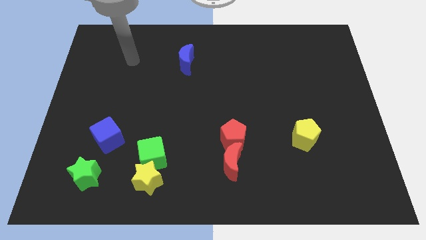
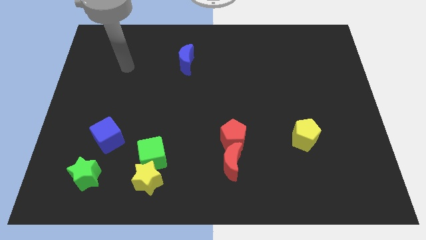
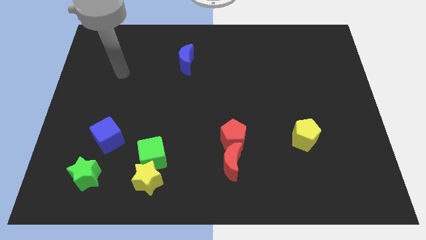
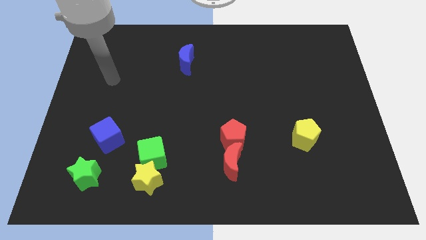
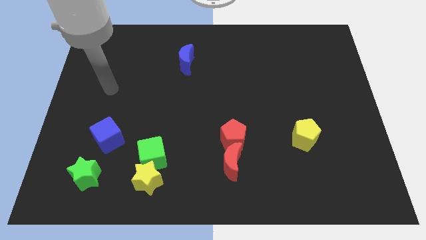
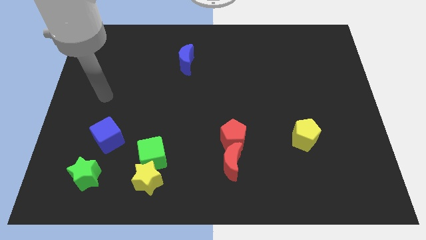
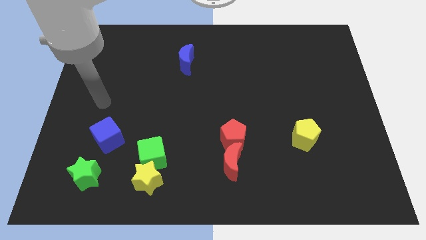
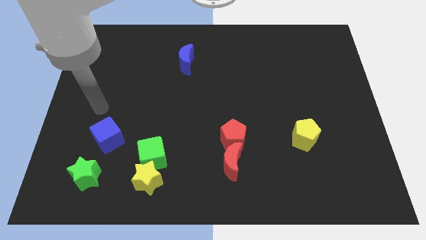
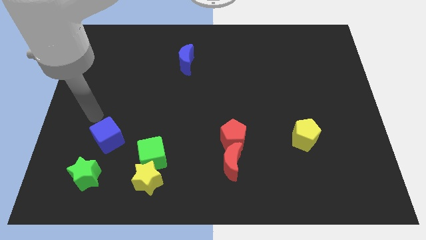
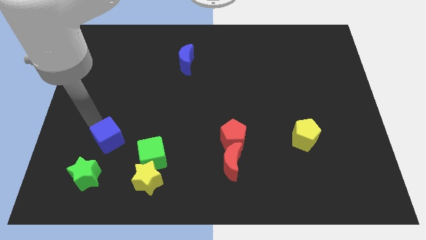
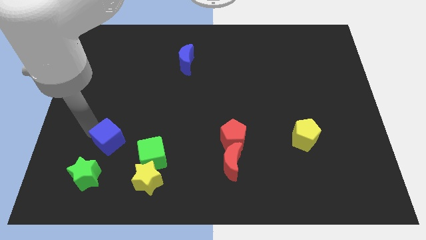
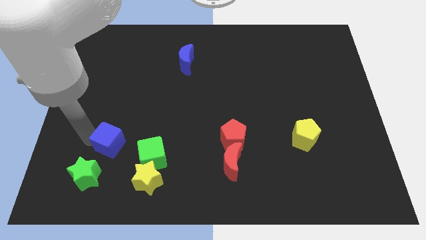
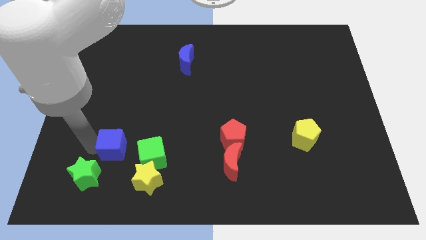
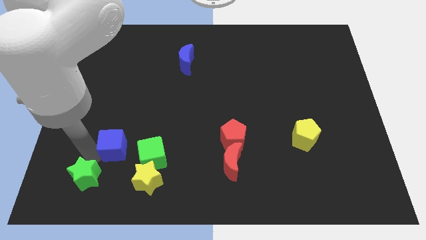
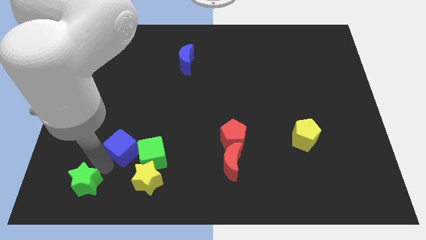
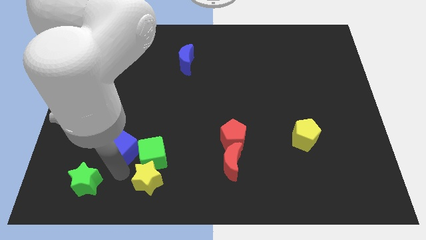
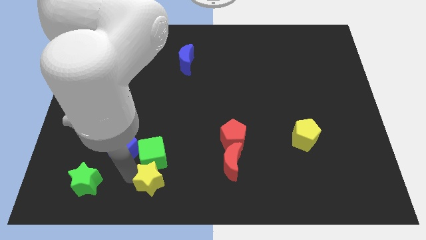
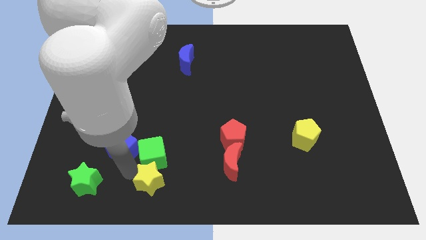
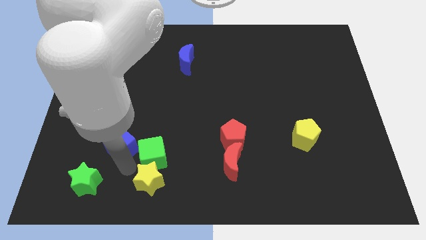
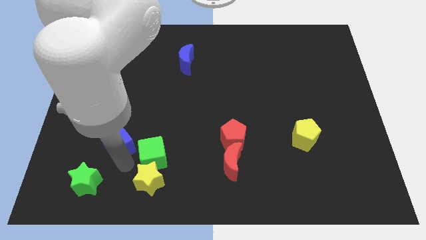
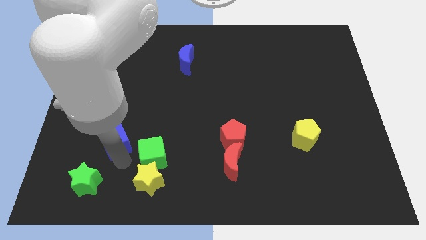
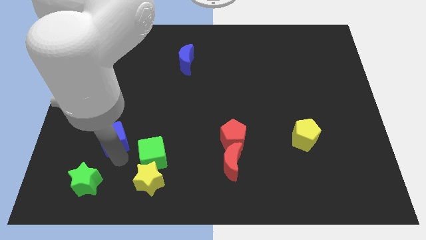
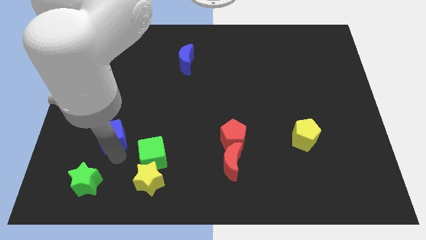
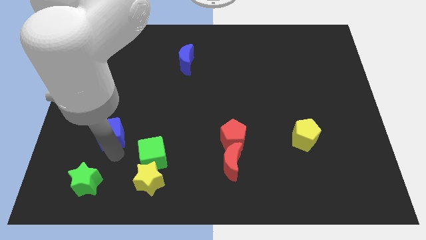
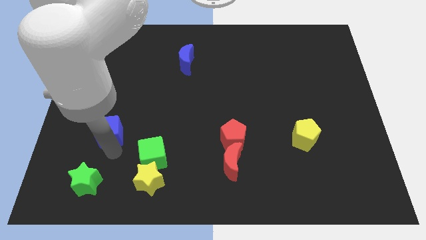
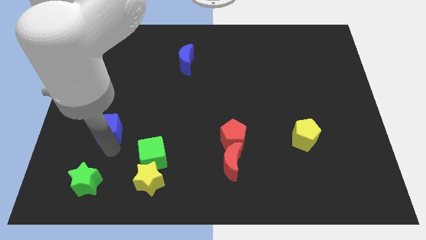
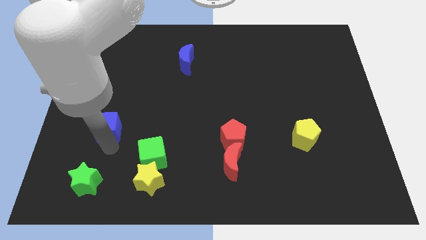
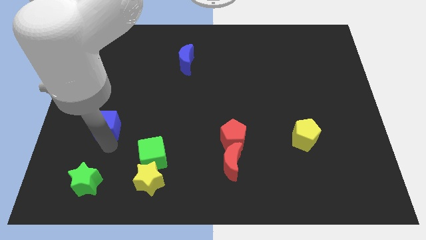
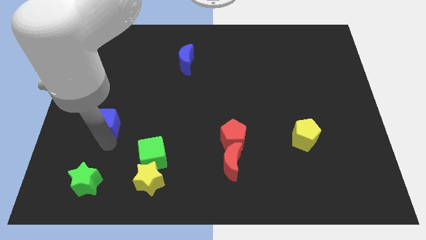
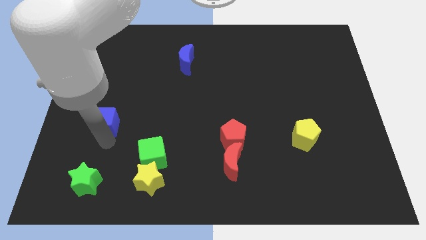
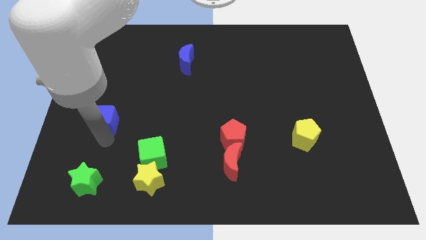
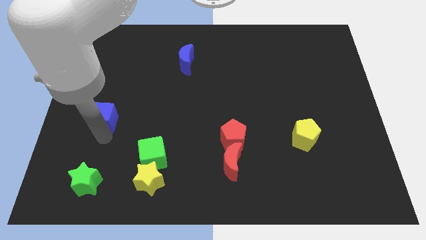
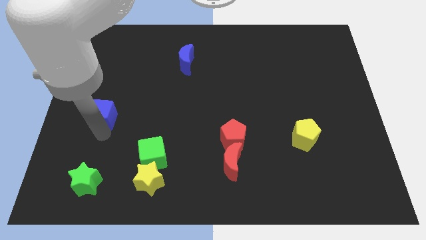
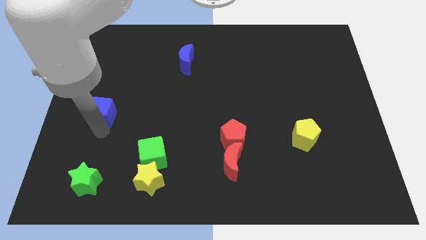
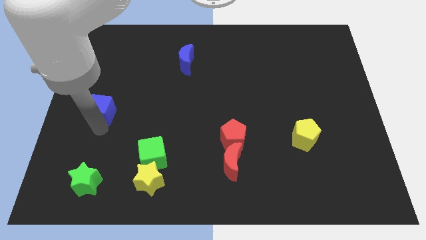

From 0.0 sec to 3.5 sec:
slide the blue cube a bit up

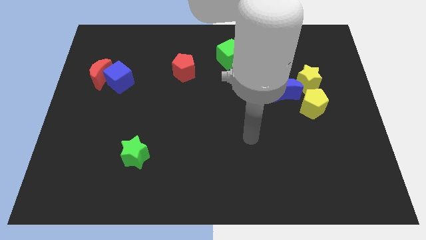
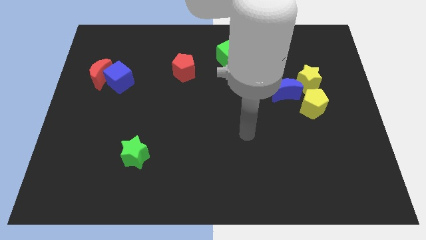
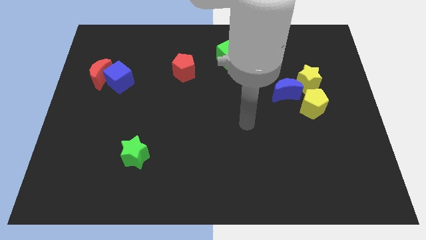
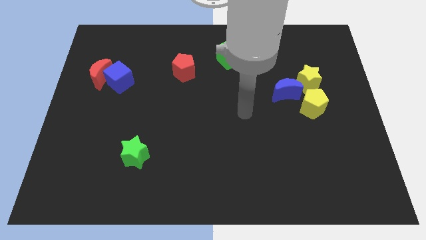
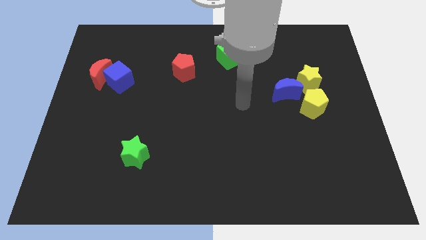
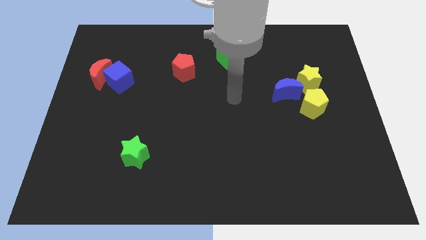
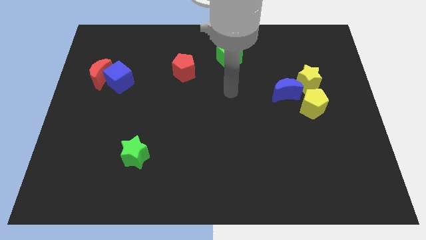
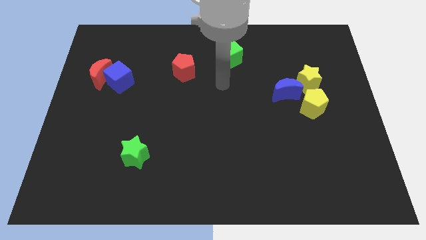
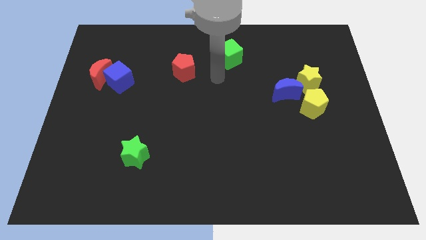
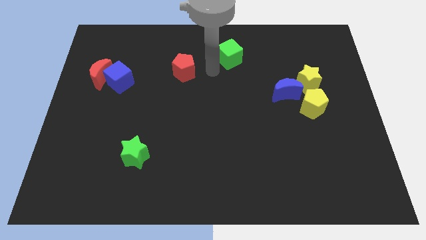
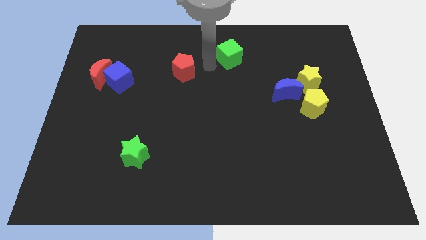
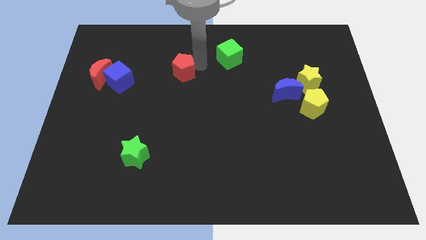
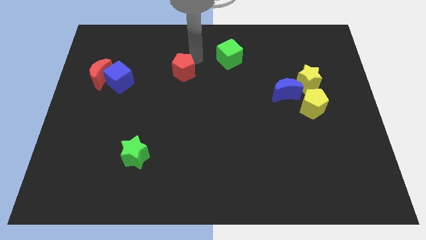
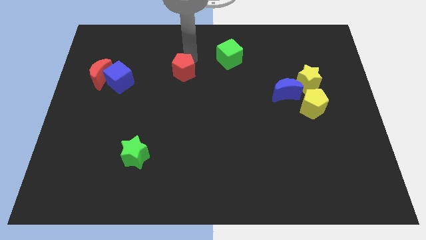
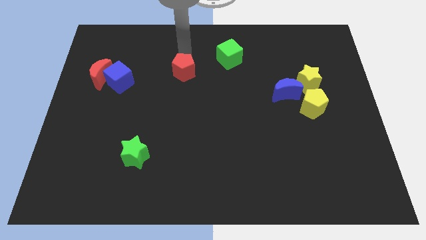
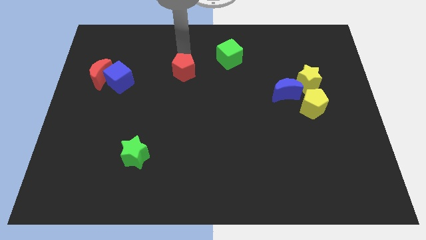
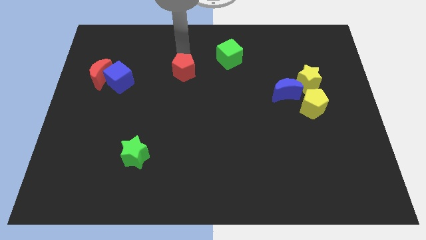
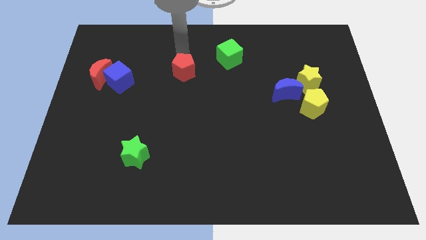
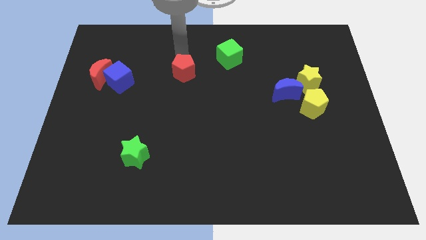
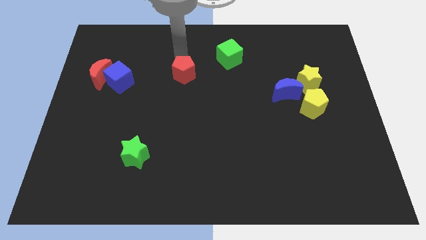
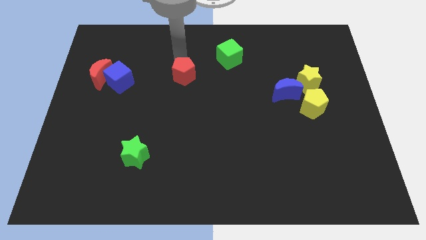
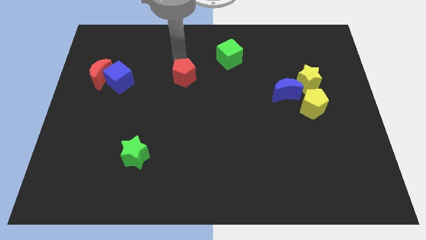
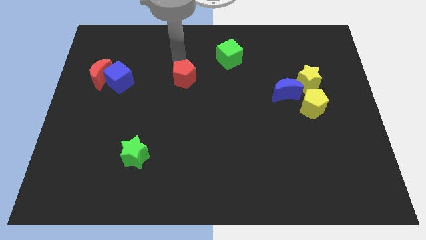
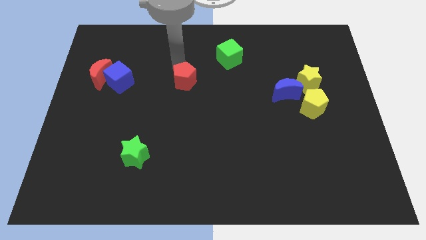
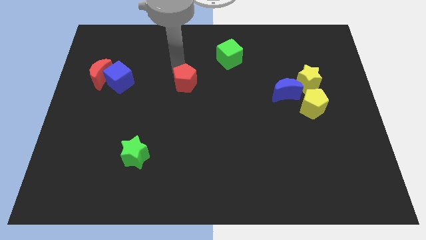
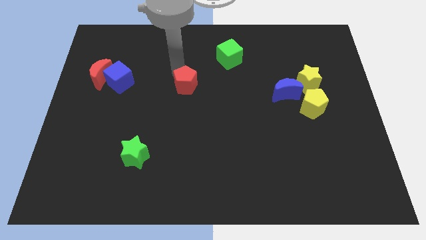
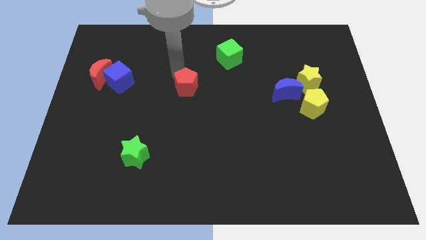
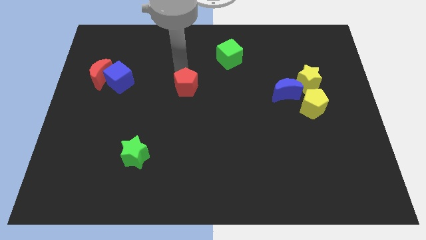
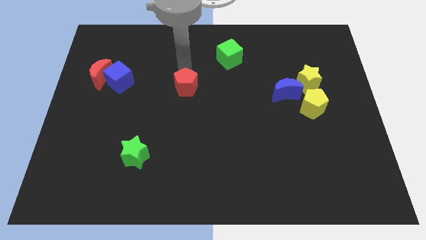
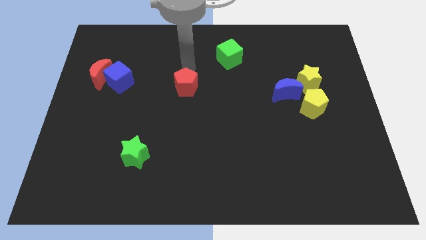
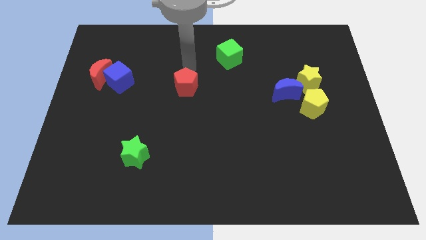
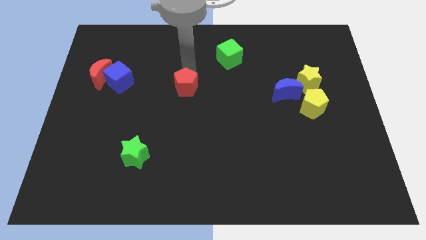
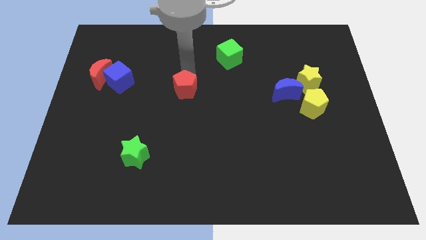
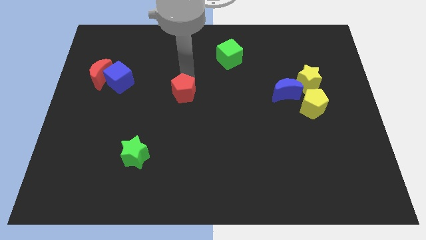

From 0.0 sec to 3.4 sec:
slide the red pentagon a little bit downwards

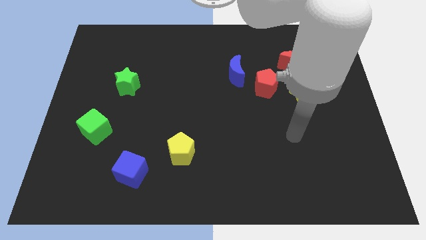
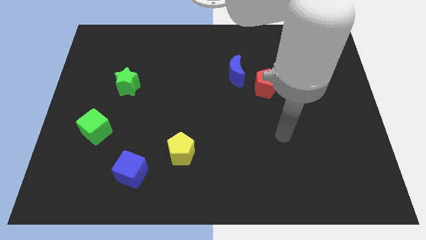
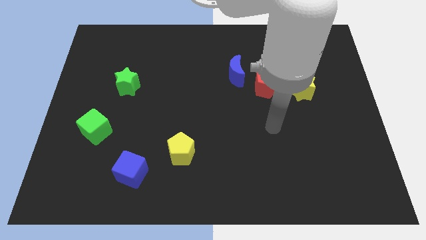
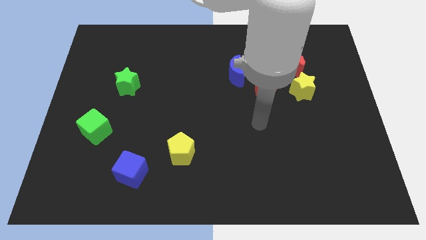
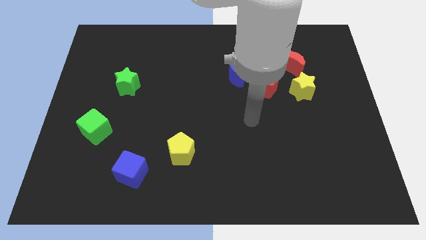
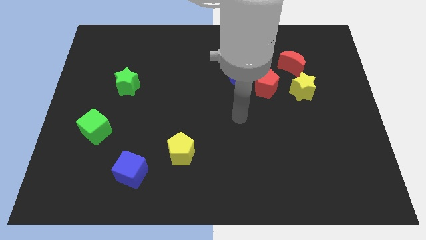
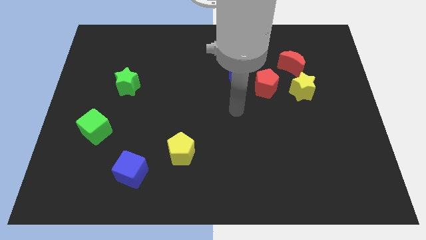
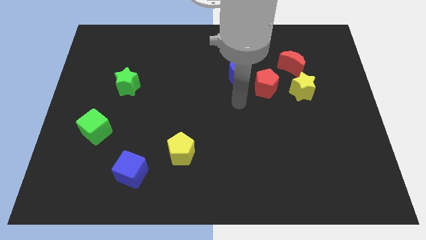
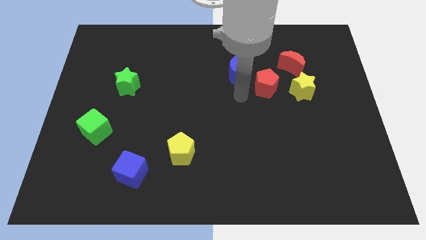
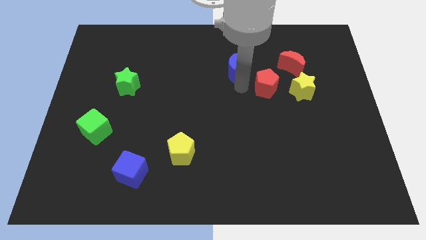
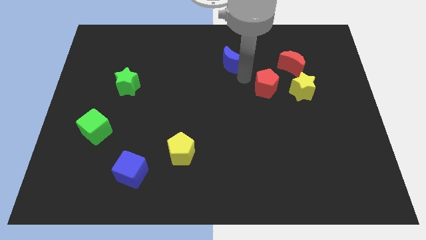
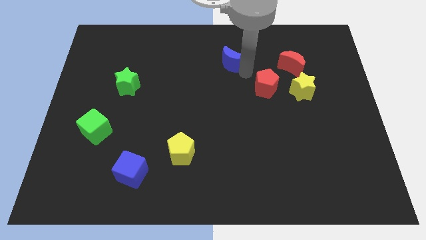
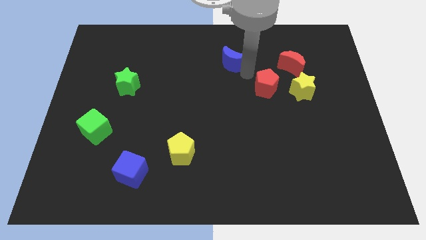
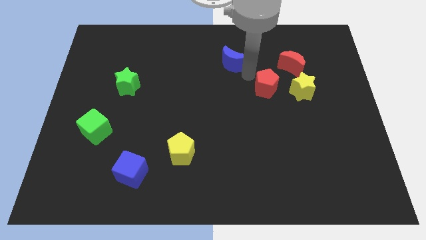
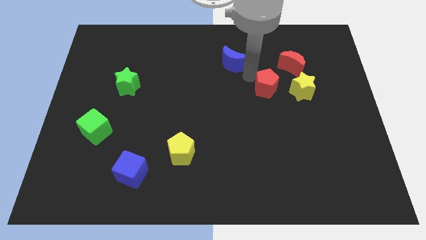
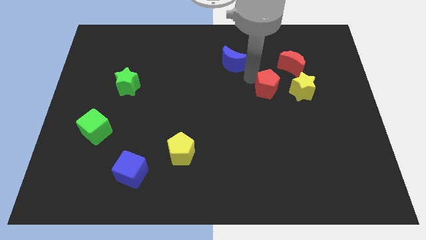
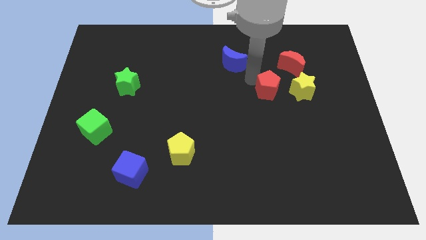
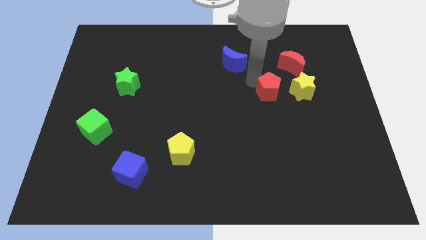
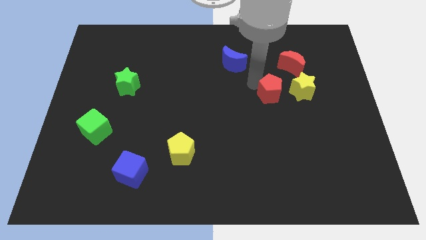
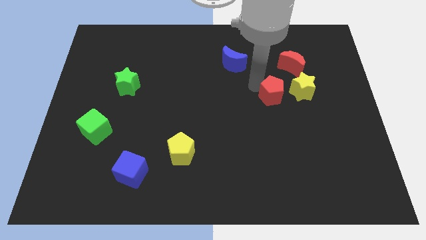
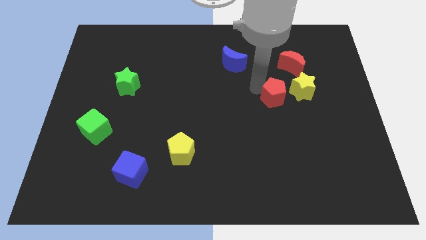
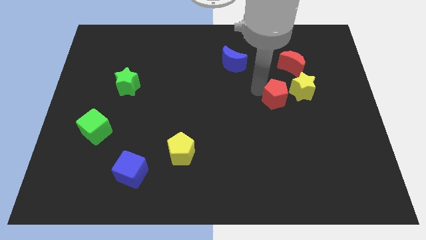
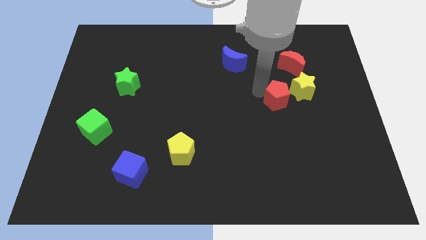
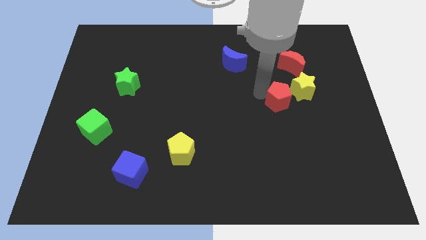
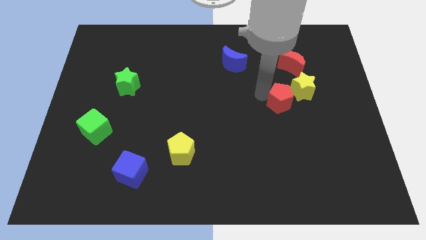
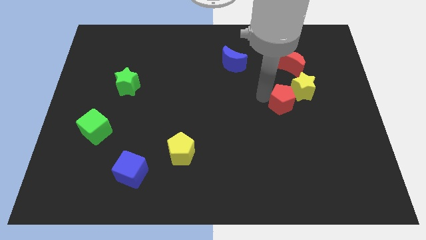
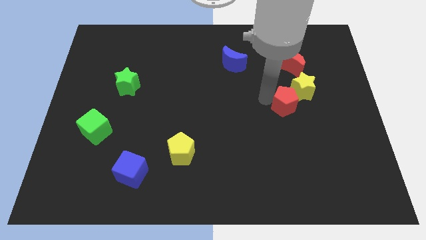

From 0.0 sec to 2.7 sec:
push the red pentagon diagonally down and right a bit
